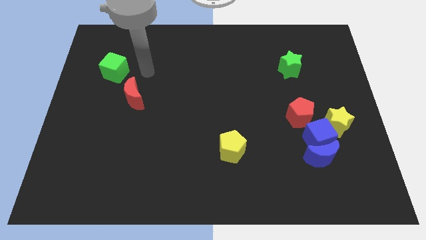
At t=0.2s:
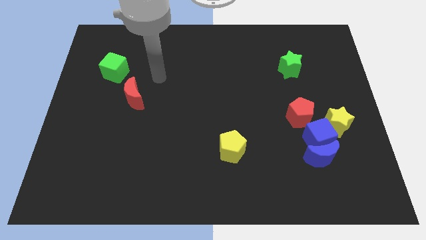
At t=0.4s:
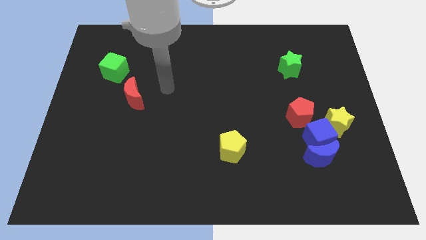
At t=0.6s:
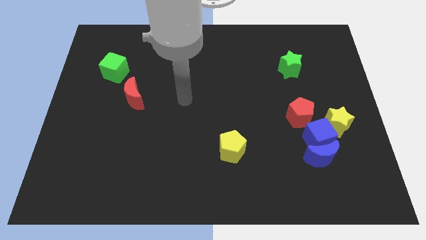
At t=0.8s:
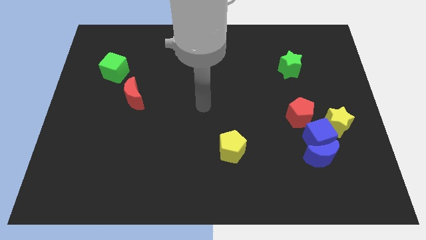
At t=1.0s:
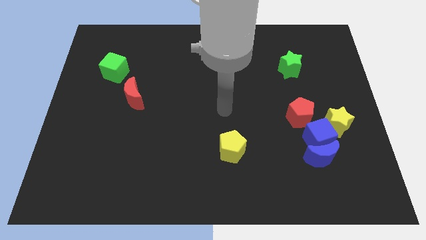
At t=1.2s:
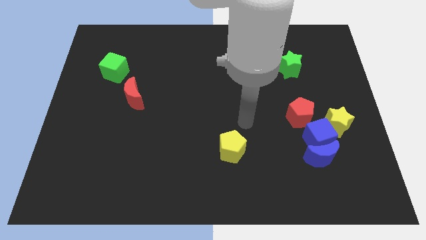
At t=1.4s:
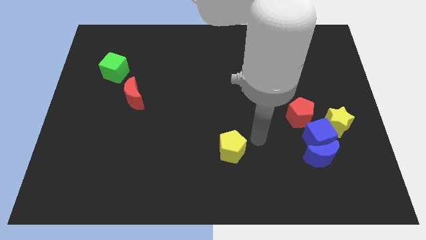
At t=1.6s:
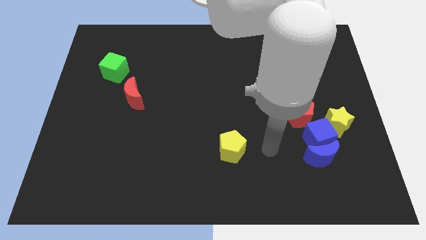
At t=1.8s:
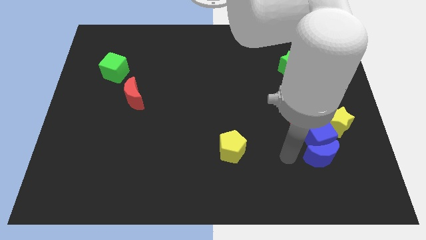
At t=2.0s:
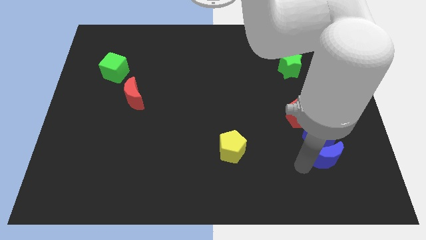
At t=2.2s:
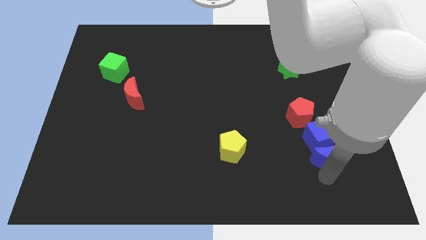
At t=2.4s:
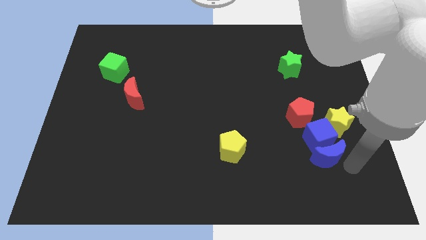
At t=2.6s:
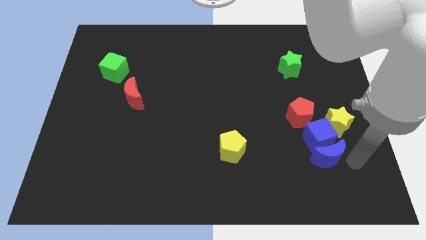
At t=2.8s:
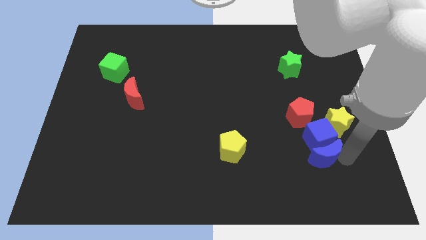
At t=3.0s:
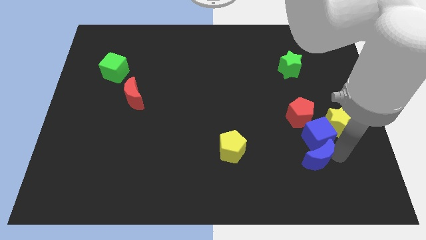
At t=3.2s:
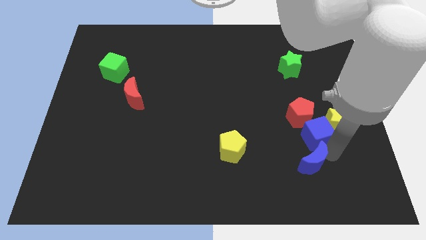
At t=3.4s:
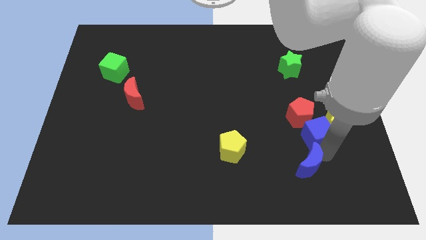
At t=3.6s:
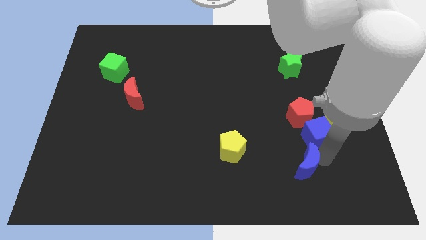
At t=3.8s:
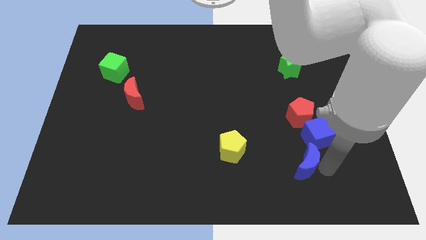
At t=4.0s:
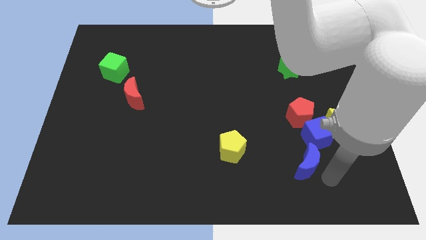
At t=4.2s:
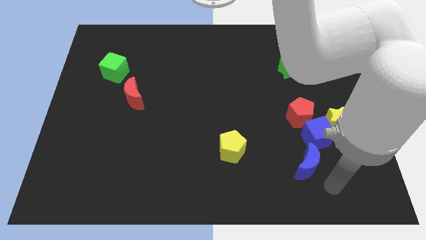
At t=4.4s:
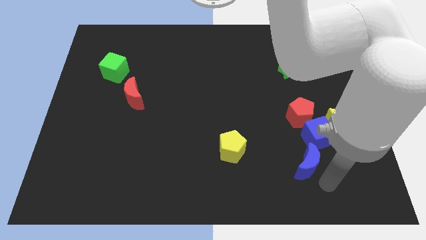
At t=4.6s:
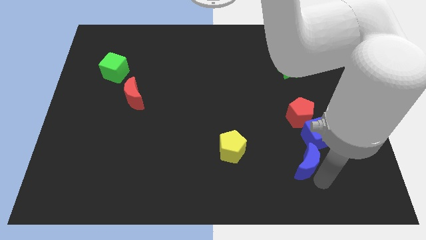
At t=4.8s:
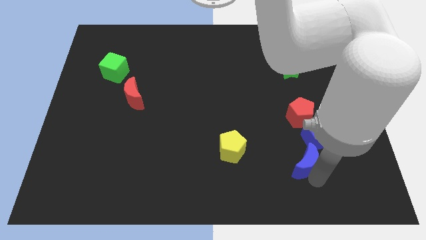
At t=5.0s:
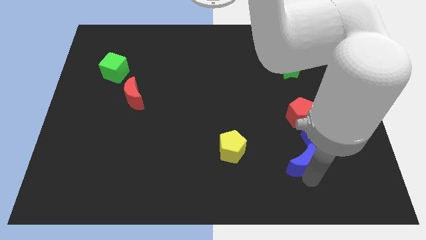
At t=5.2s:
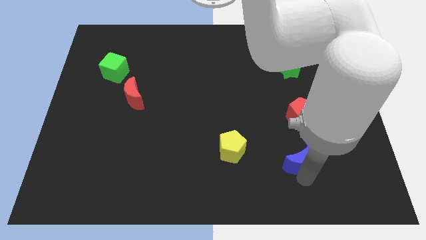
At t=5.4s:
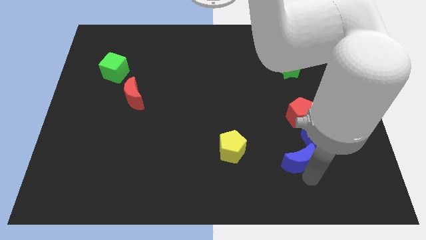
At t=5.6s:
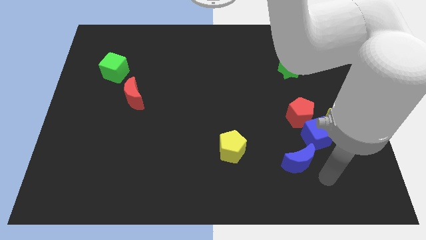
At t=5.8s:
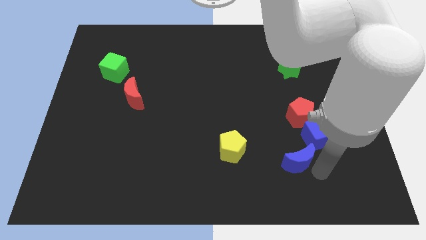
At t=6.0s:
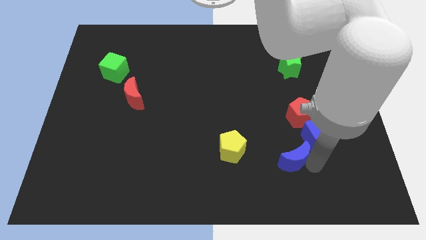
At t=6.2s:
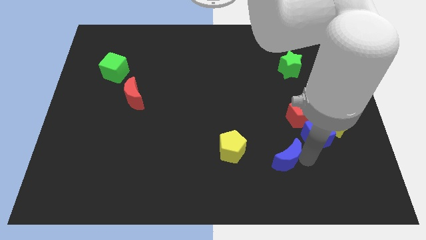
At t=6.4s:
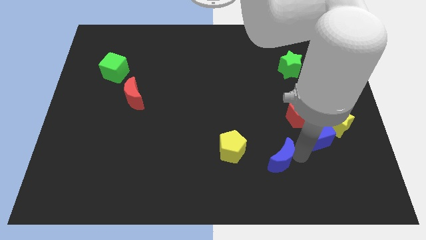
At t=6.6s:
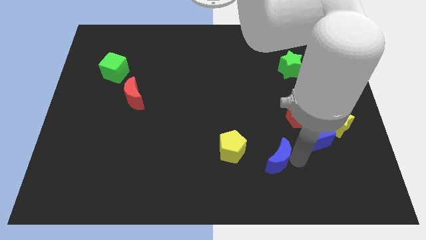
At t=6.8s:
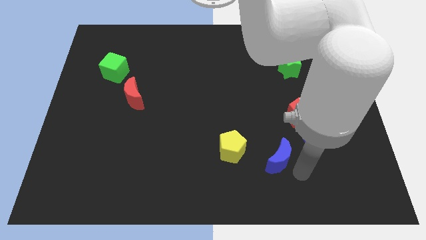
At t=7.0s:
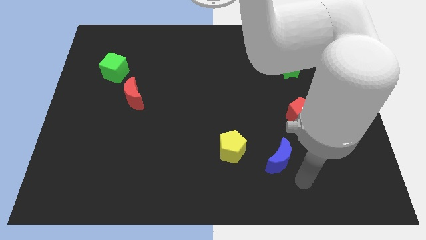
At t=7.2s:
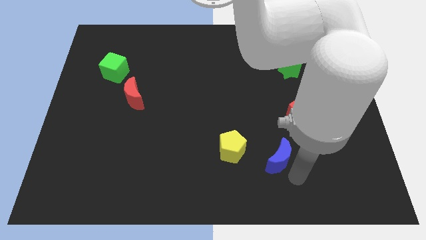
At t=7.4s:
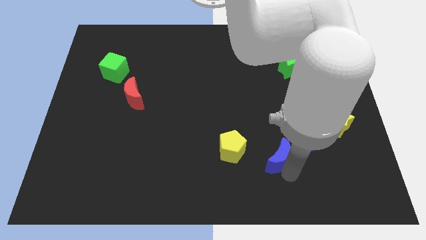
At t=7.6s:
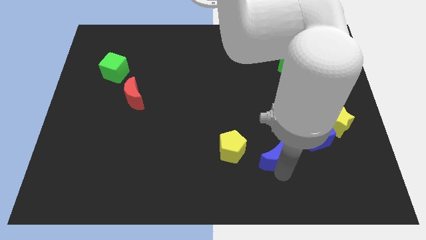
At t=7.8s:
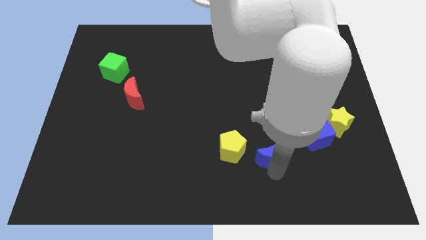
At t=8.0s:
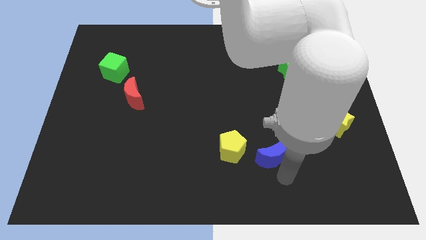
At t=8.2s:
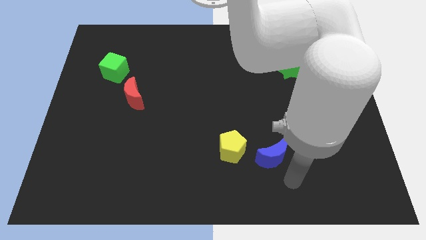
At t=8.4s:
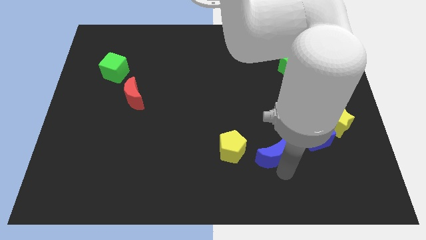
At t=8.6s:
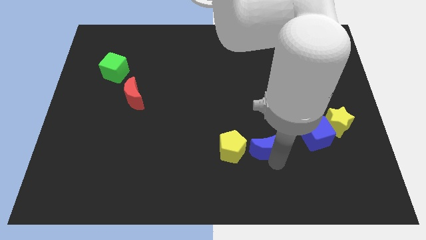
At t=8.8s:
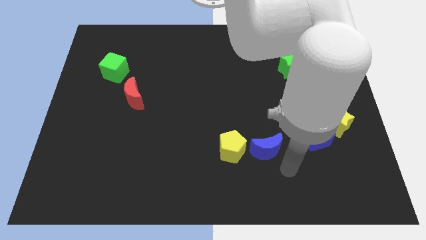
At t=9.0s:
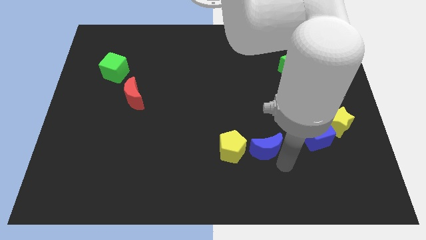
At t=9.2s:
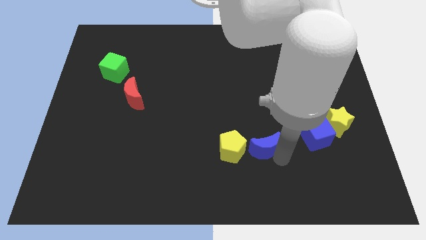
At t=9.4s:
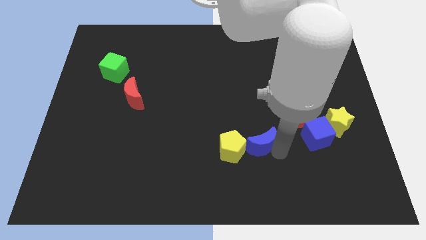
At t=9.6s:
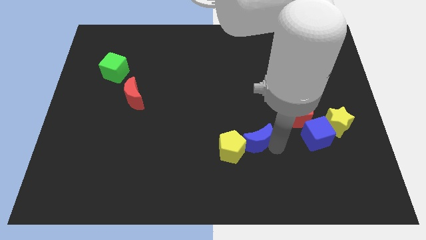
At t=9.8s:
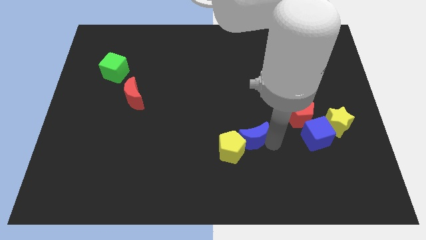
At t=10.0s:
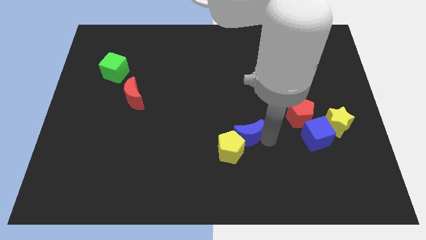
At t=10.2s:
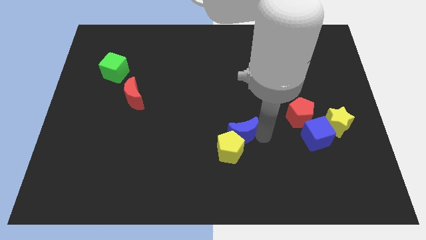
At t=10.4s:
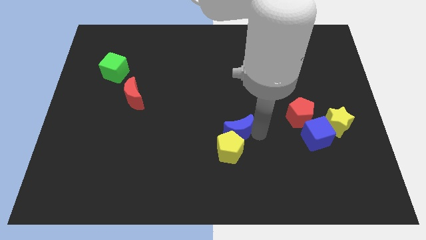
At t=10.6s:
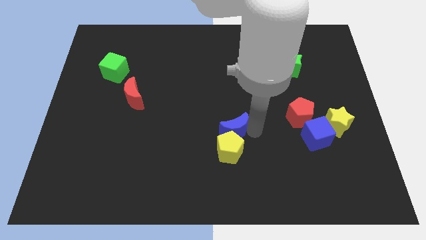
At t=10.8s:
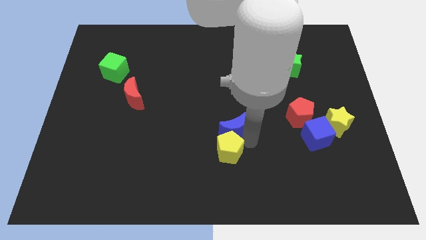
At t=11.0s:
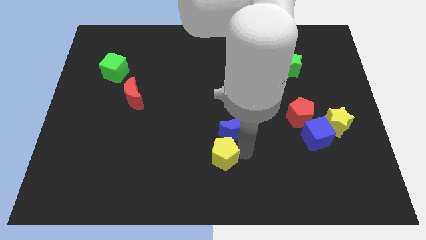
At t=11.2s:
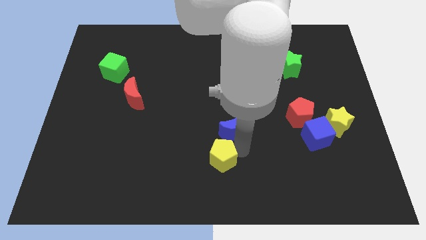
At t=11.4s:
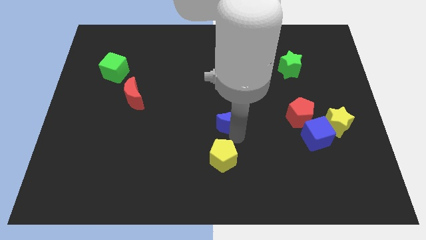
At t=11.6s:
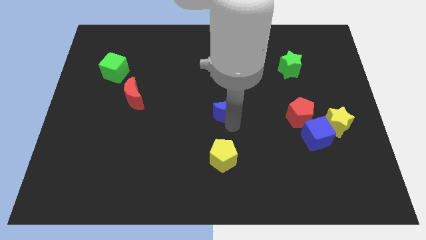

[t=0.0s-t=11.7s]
push the blue moon upwards and then to the left

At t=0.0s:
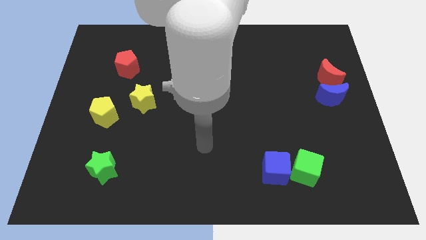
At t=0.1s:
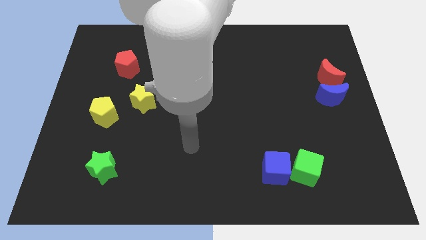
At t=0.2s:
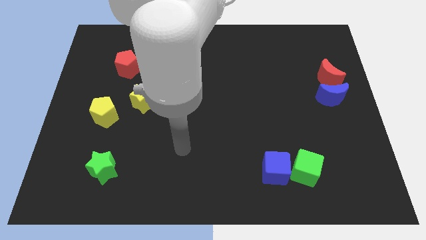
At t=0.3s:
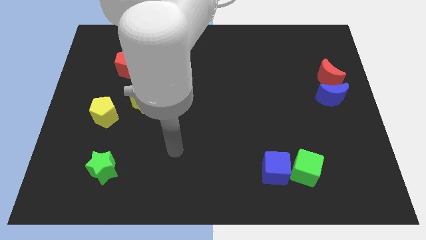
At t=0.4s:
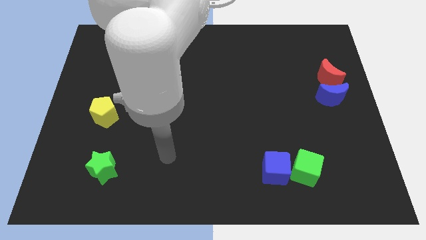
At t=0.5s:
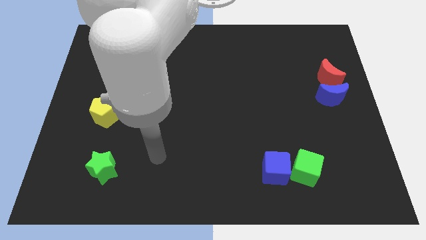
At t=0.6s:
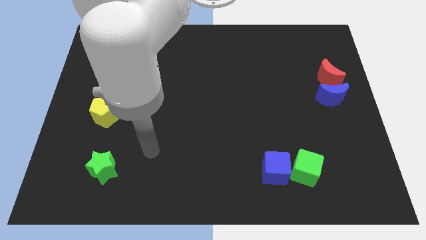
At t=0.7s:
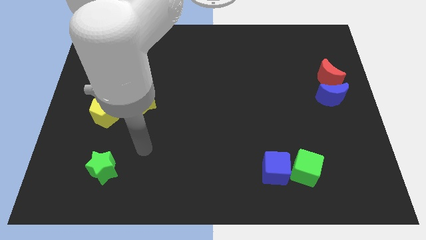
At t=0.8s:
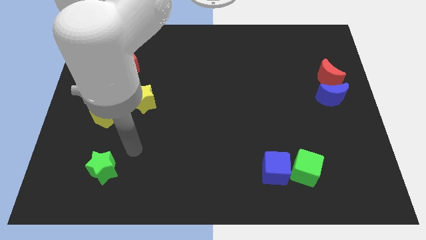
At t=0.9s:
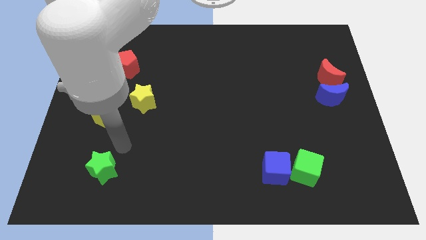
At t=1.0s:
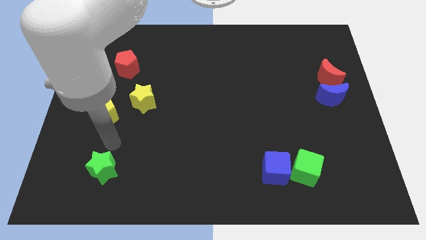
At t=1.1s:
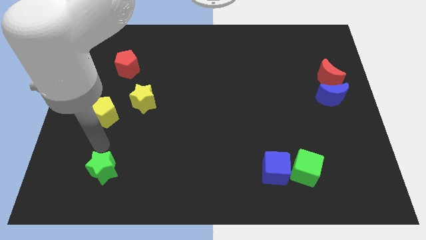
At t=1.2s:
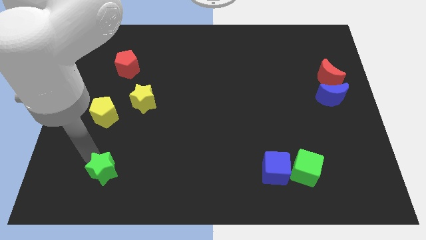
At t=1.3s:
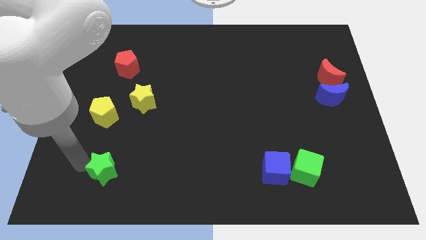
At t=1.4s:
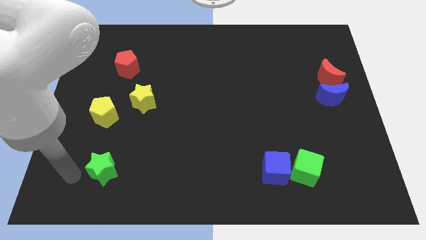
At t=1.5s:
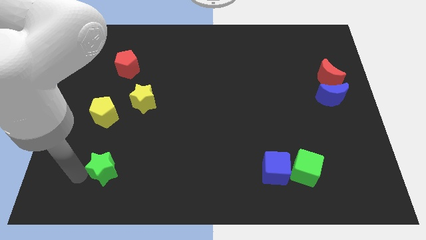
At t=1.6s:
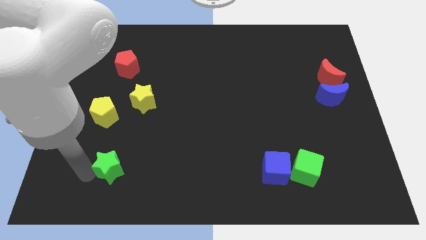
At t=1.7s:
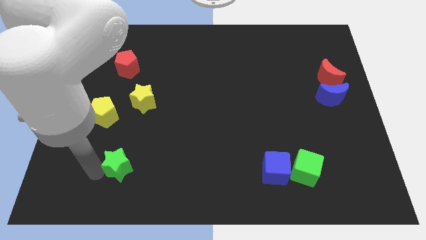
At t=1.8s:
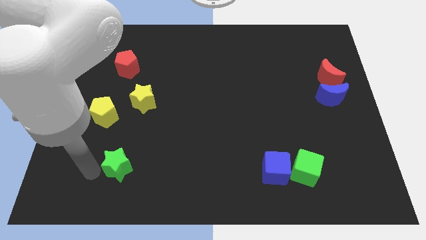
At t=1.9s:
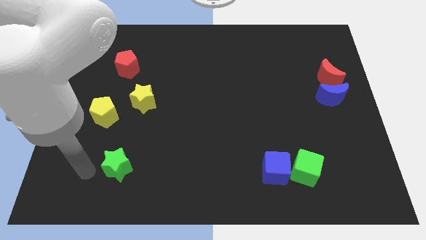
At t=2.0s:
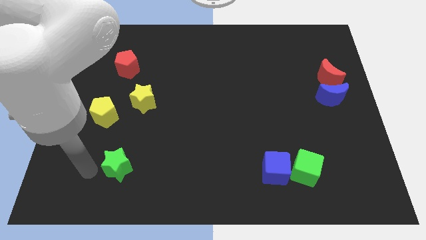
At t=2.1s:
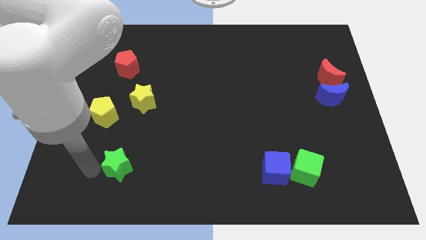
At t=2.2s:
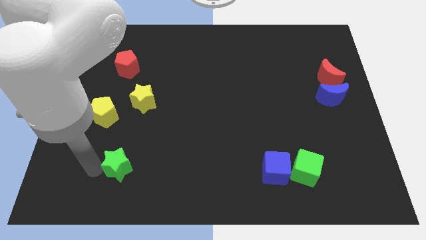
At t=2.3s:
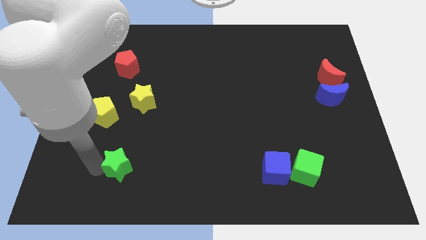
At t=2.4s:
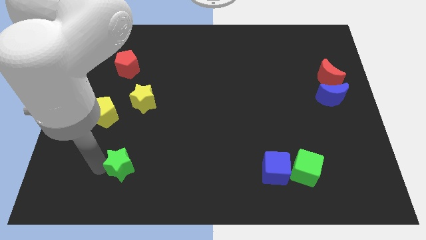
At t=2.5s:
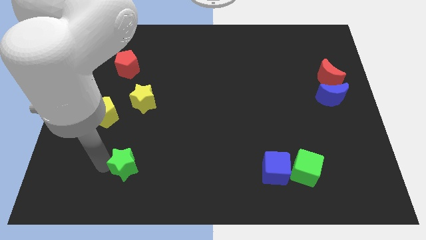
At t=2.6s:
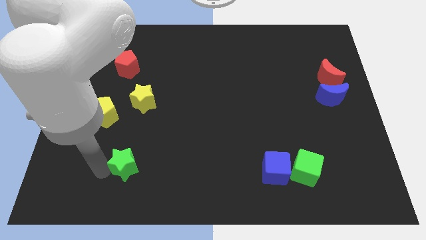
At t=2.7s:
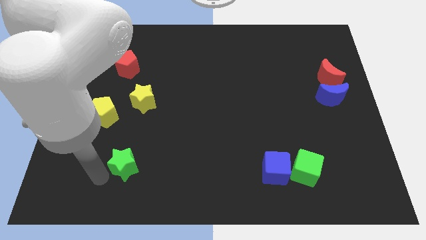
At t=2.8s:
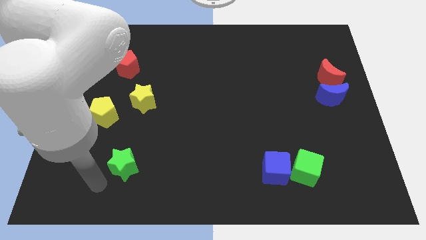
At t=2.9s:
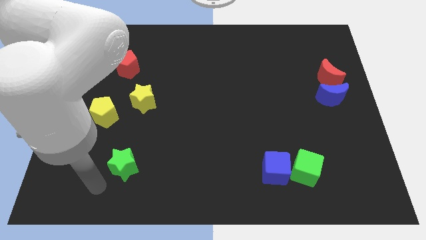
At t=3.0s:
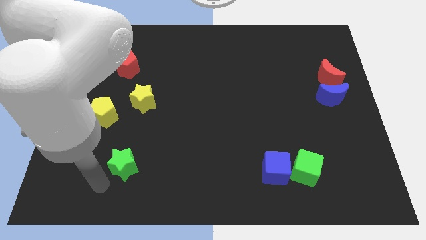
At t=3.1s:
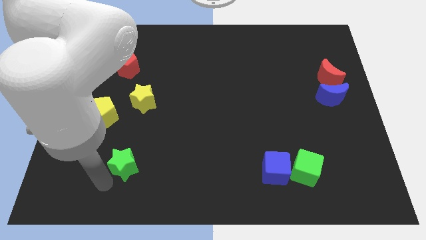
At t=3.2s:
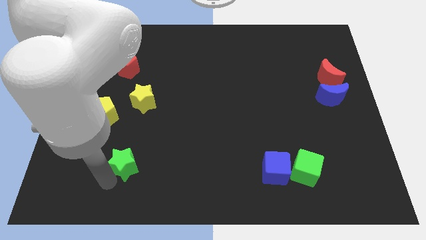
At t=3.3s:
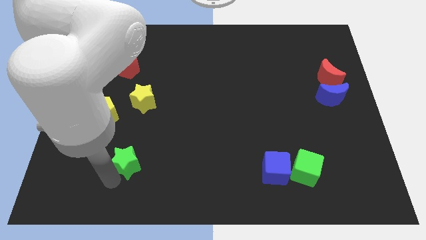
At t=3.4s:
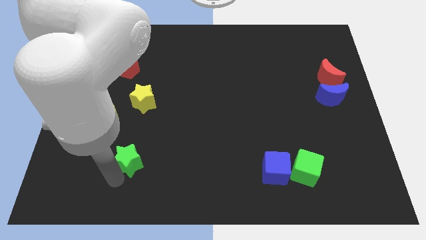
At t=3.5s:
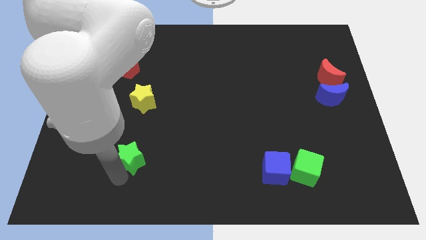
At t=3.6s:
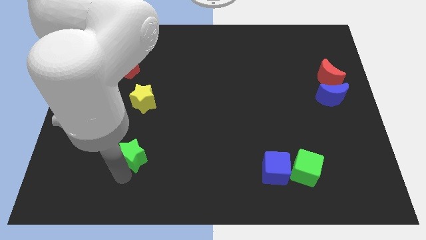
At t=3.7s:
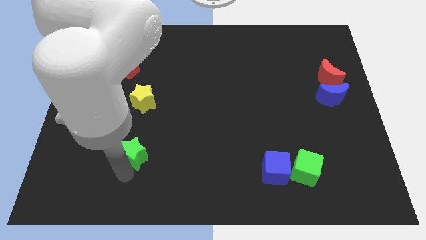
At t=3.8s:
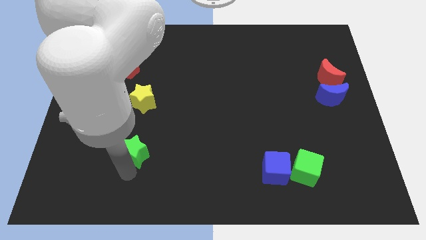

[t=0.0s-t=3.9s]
slightly move the green star upwards and then to the right
